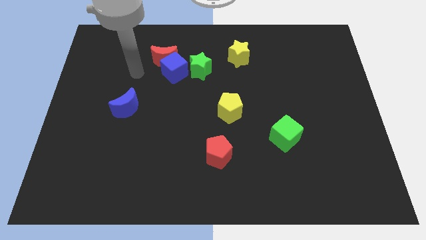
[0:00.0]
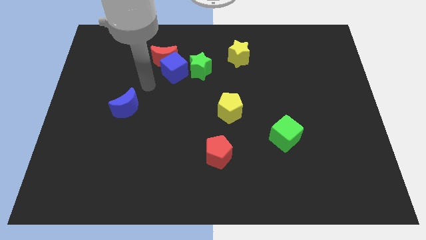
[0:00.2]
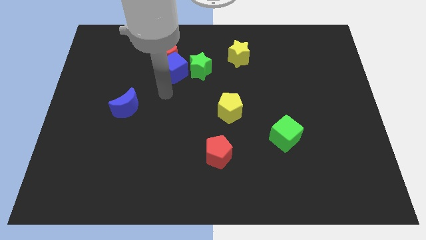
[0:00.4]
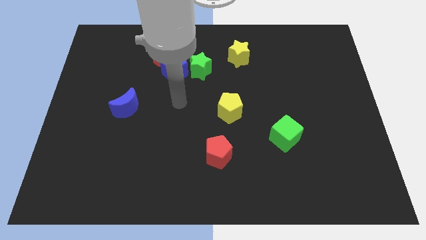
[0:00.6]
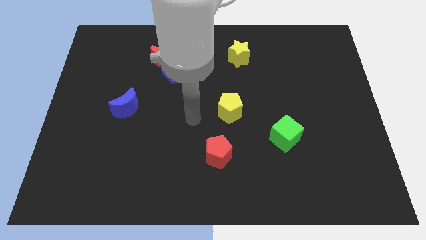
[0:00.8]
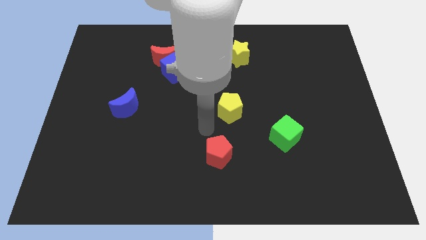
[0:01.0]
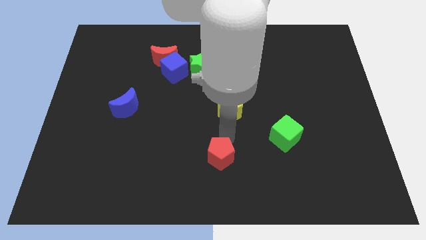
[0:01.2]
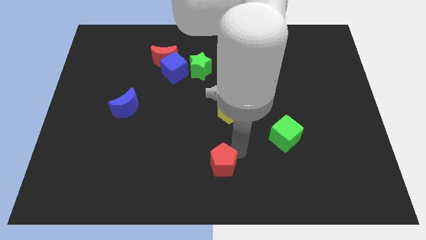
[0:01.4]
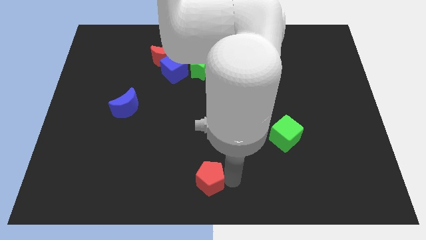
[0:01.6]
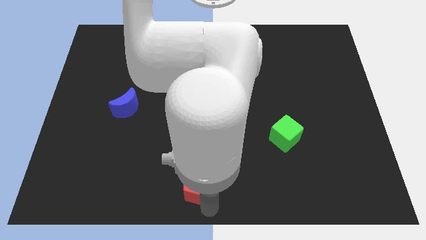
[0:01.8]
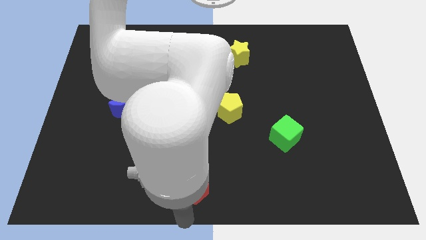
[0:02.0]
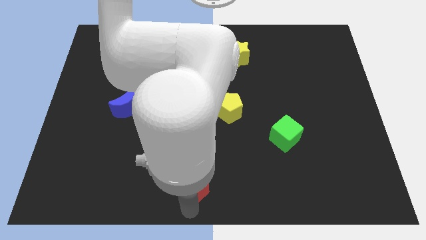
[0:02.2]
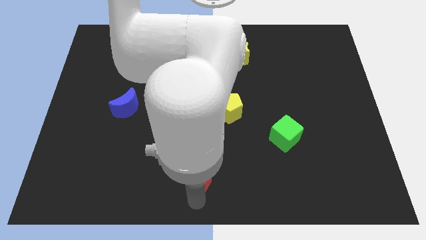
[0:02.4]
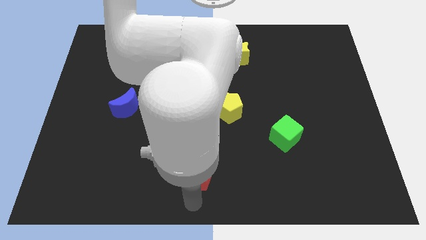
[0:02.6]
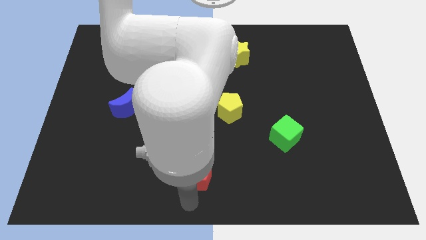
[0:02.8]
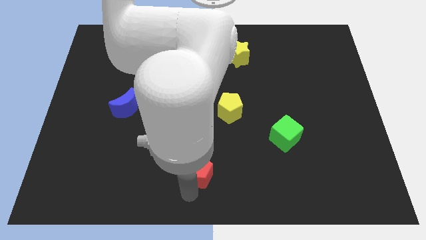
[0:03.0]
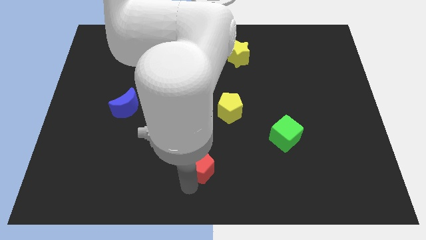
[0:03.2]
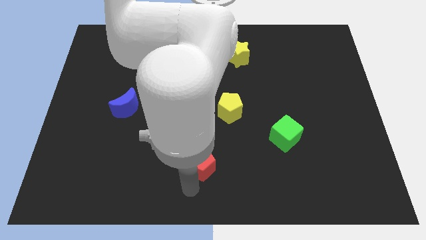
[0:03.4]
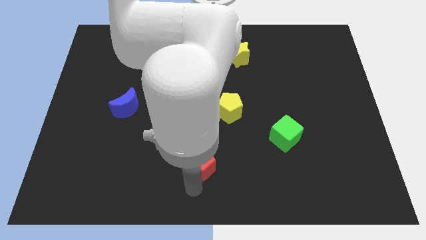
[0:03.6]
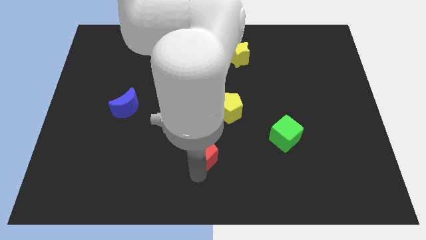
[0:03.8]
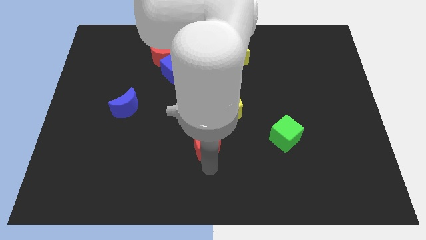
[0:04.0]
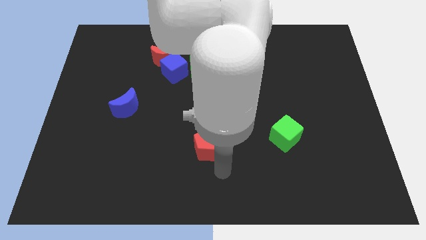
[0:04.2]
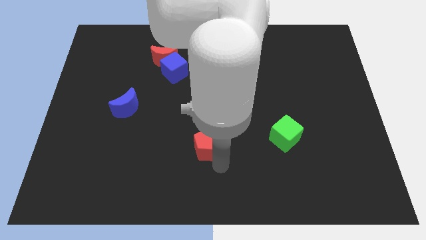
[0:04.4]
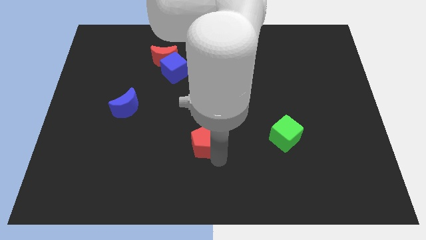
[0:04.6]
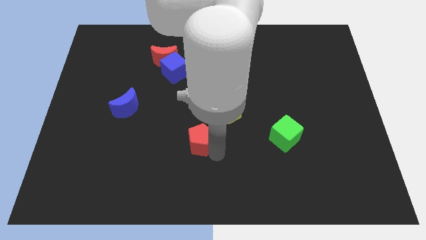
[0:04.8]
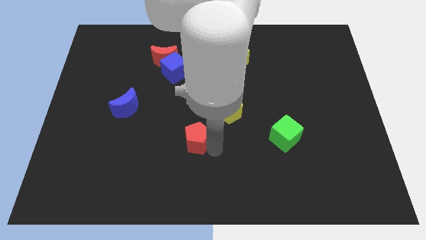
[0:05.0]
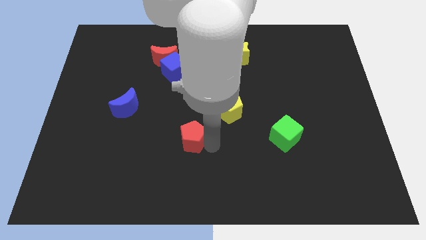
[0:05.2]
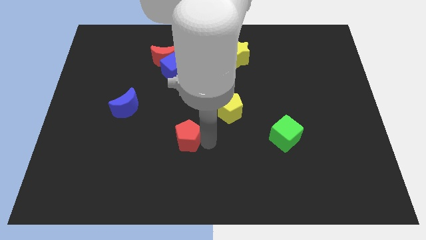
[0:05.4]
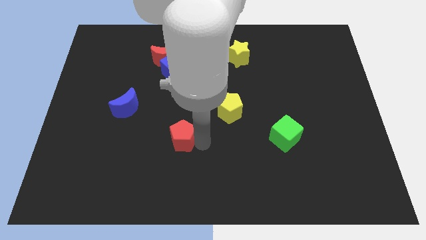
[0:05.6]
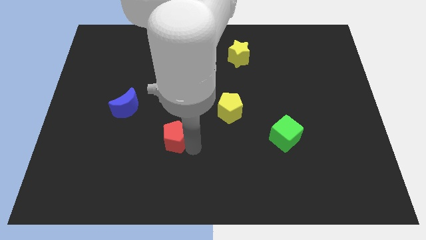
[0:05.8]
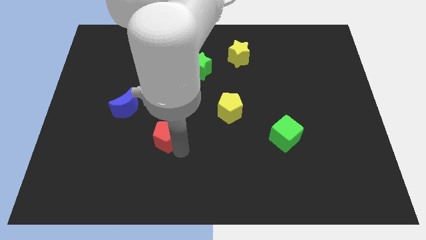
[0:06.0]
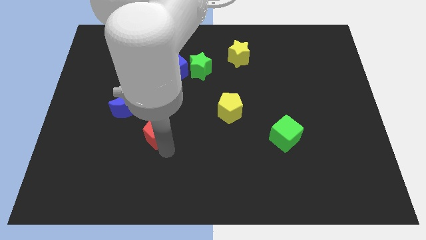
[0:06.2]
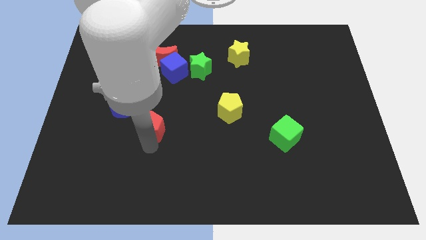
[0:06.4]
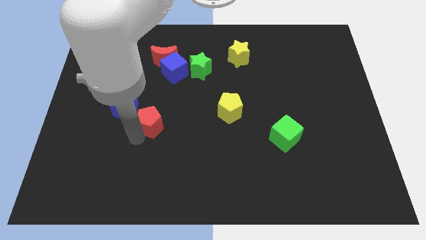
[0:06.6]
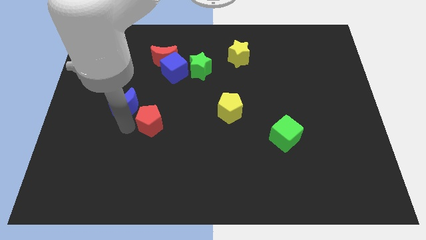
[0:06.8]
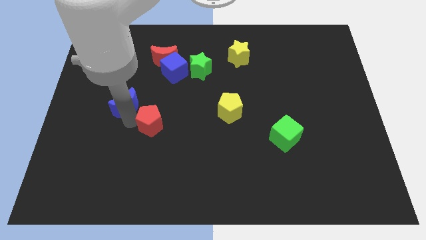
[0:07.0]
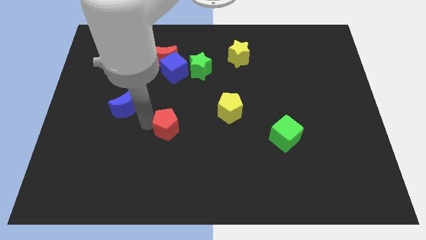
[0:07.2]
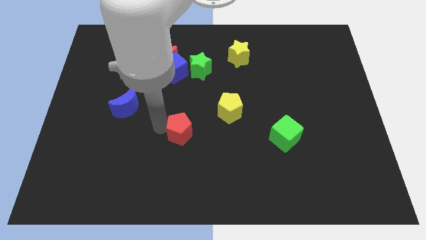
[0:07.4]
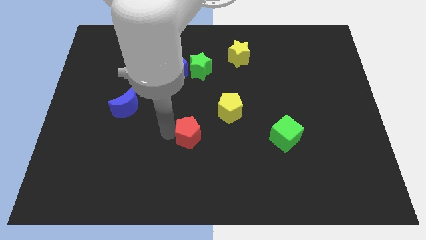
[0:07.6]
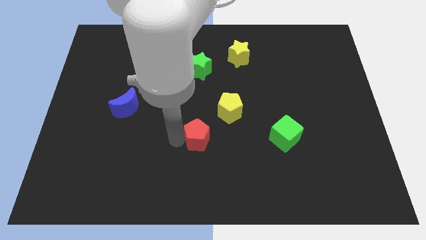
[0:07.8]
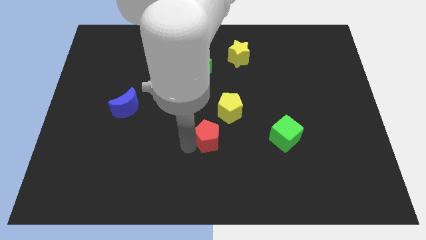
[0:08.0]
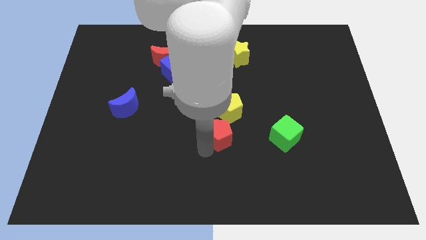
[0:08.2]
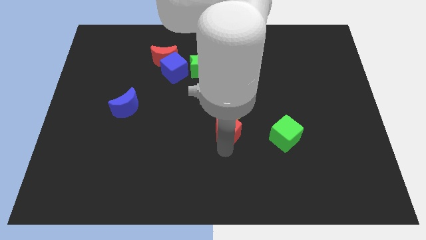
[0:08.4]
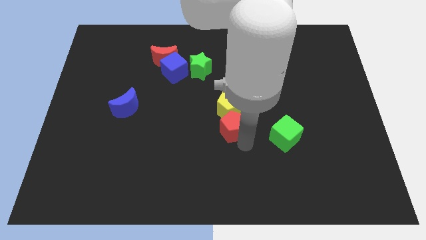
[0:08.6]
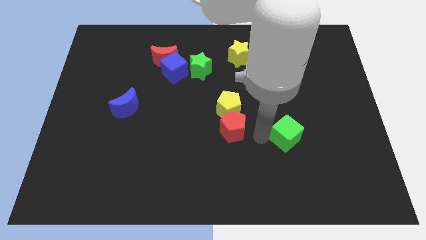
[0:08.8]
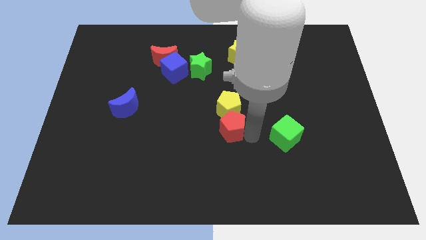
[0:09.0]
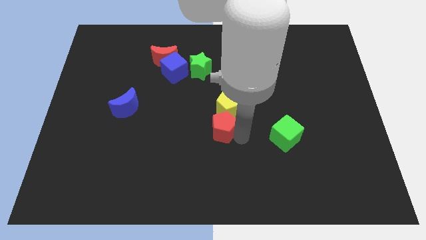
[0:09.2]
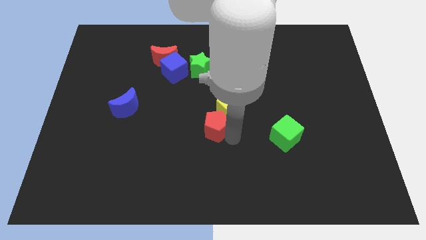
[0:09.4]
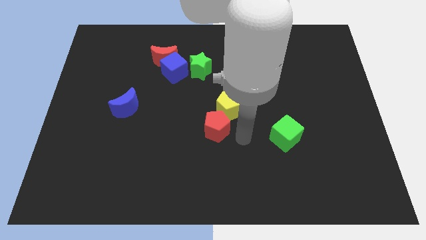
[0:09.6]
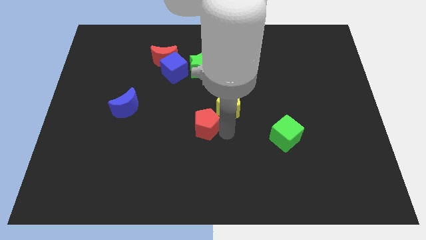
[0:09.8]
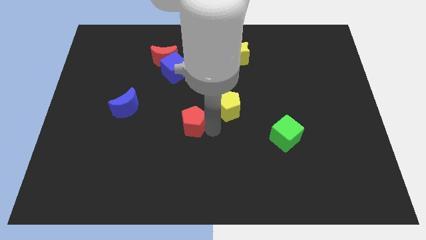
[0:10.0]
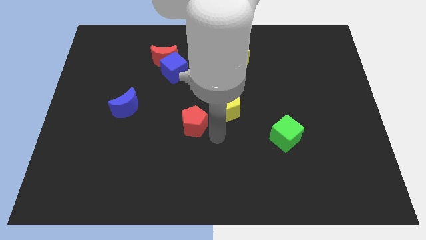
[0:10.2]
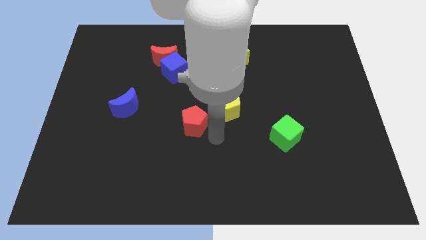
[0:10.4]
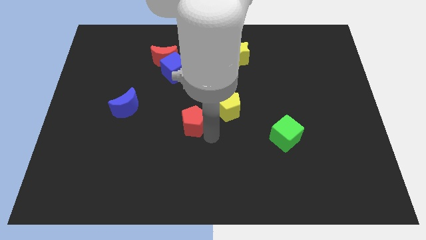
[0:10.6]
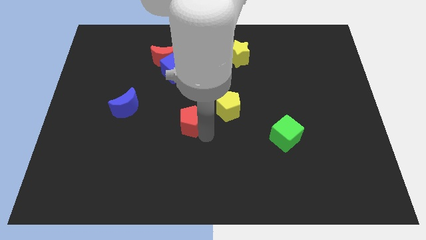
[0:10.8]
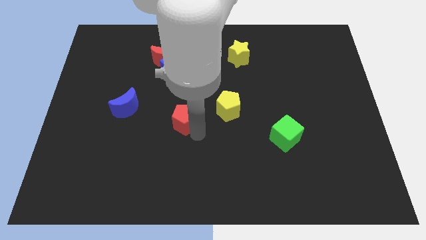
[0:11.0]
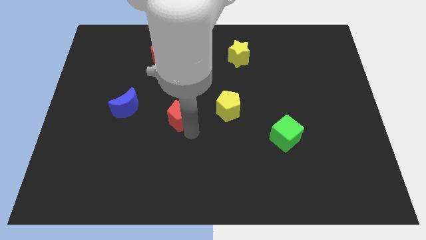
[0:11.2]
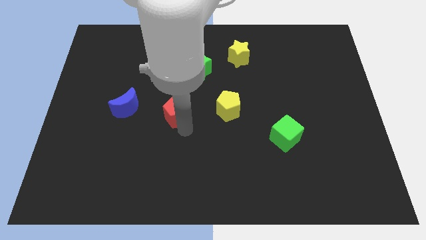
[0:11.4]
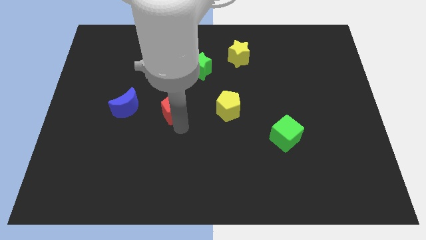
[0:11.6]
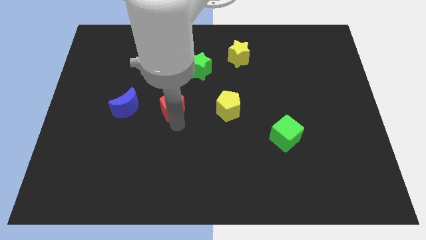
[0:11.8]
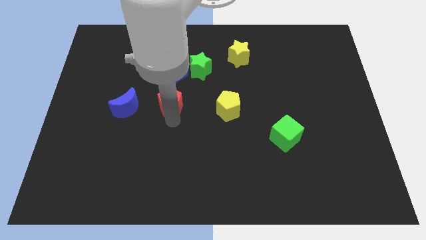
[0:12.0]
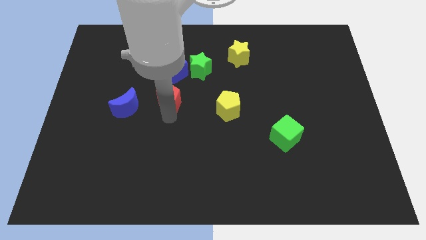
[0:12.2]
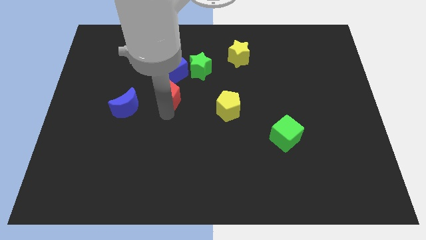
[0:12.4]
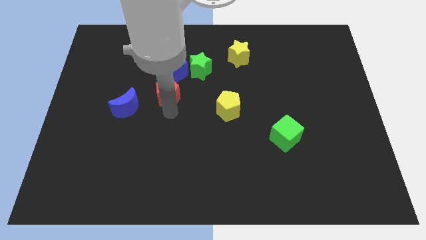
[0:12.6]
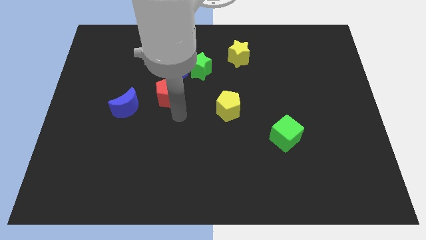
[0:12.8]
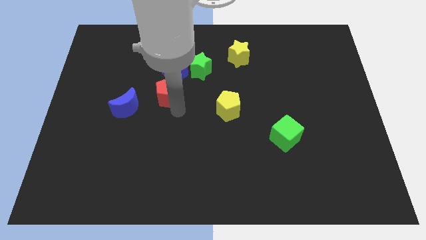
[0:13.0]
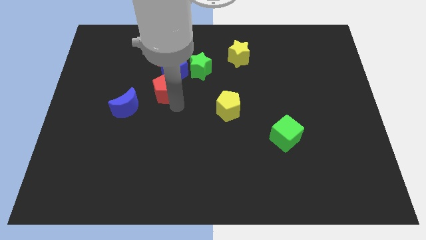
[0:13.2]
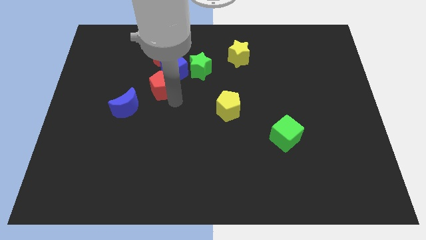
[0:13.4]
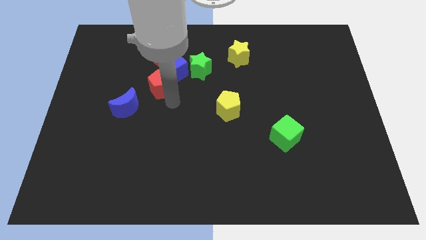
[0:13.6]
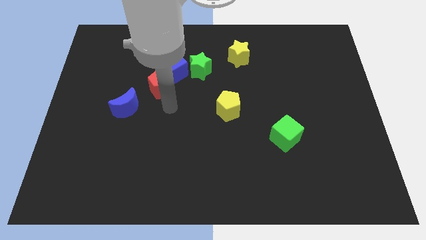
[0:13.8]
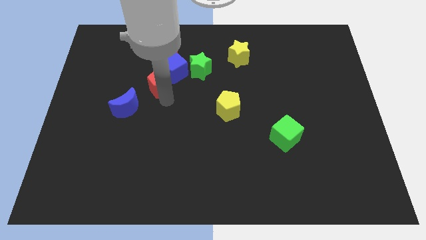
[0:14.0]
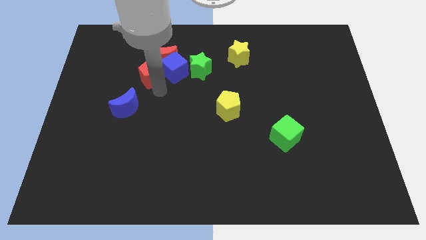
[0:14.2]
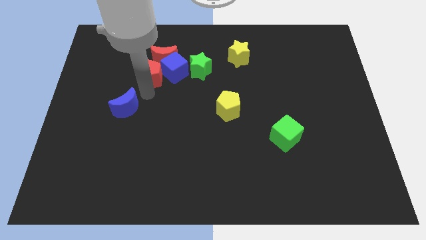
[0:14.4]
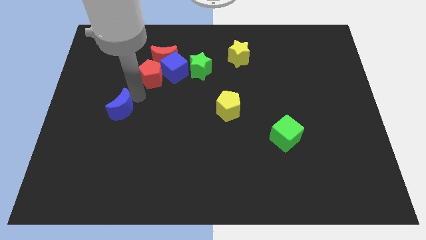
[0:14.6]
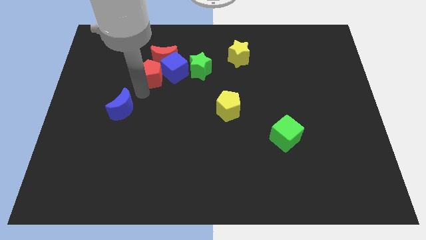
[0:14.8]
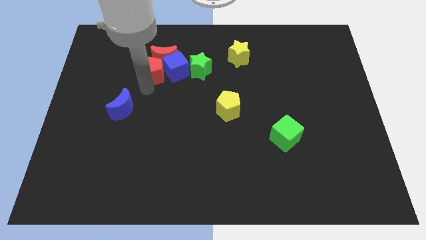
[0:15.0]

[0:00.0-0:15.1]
put the red pentagon to the red moon
